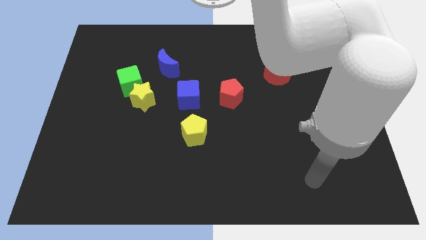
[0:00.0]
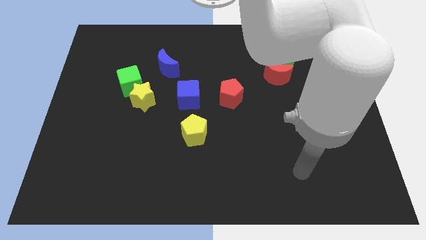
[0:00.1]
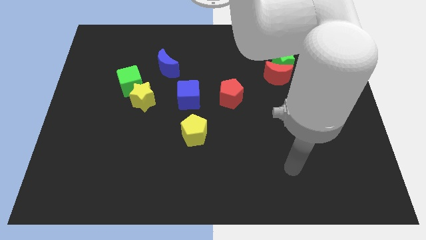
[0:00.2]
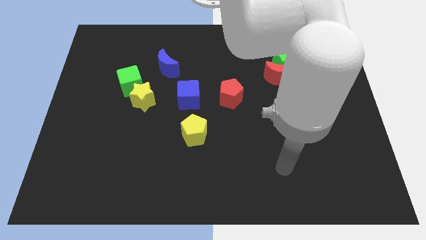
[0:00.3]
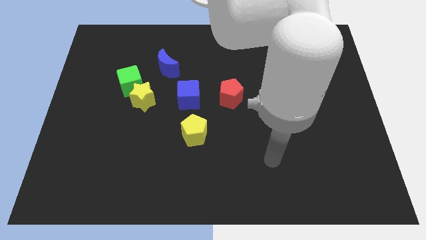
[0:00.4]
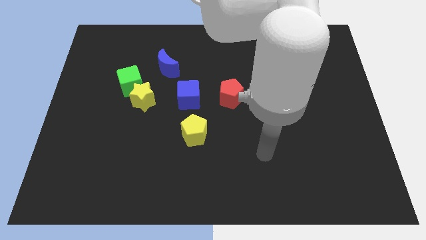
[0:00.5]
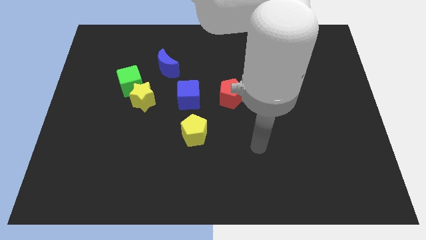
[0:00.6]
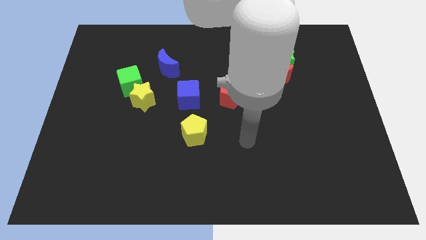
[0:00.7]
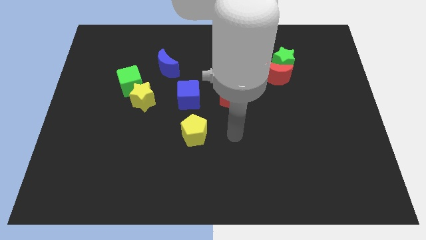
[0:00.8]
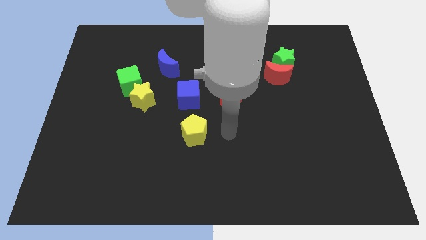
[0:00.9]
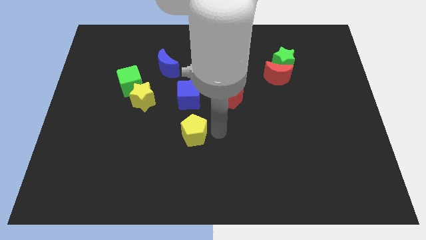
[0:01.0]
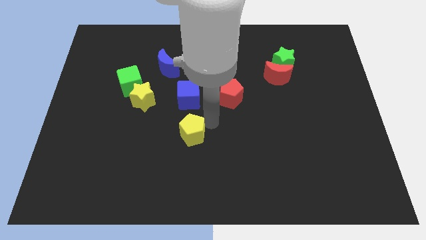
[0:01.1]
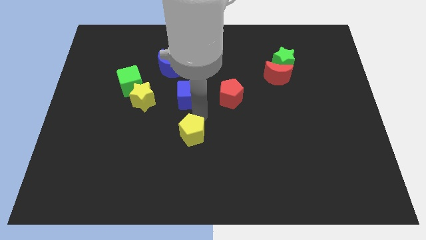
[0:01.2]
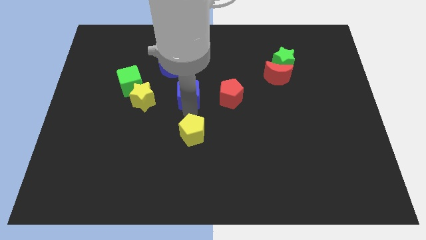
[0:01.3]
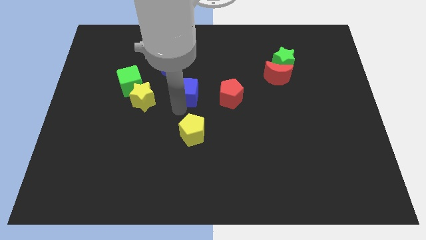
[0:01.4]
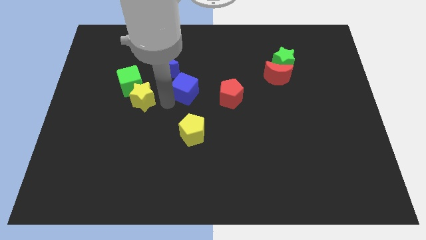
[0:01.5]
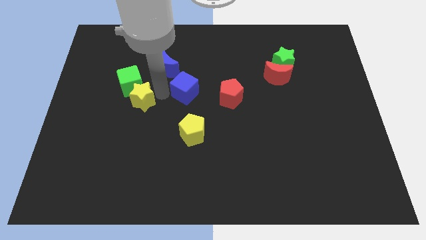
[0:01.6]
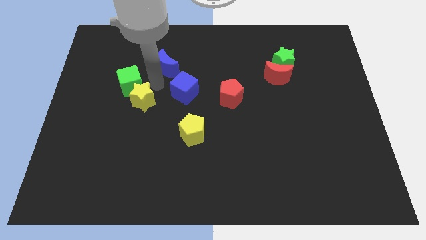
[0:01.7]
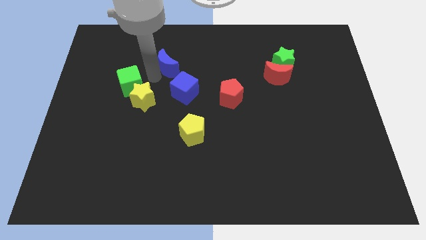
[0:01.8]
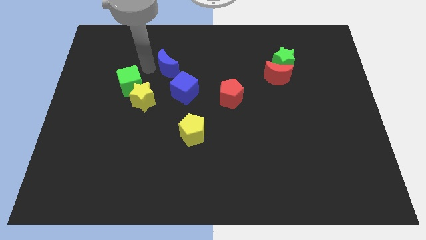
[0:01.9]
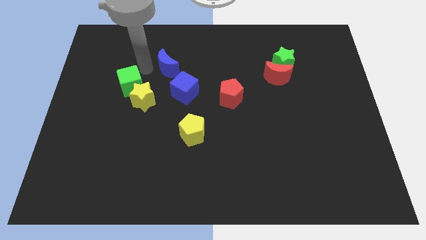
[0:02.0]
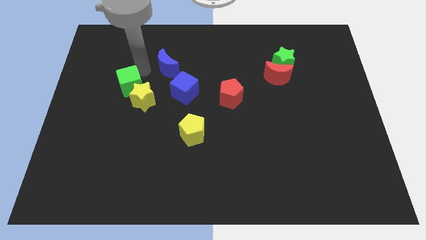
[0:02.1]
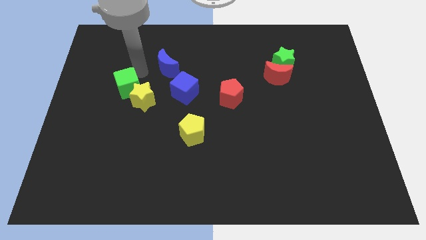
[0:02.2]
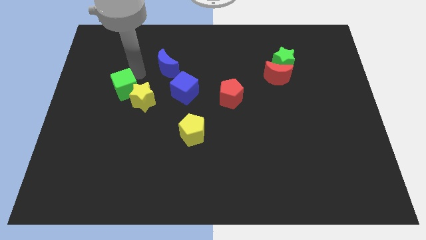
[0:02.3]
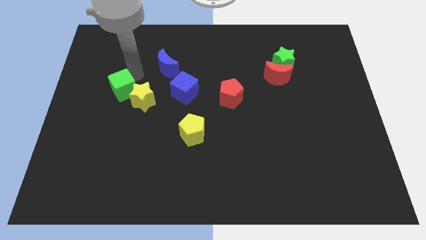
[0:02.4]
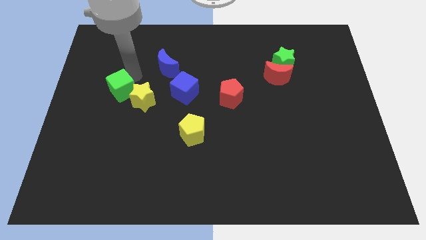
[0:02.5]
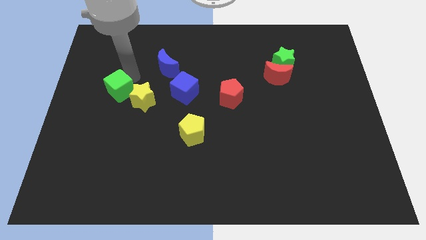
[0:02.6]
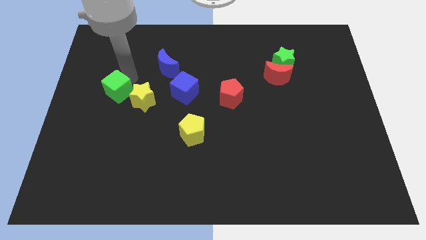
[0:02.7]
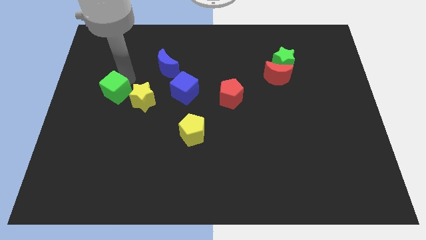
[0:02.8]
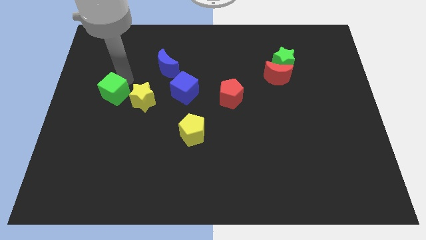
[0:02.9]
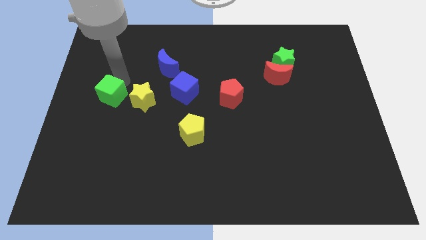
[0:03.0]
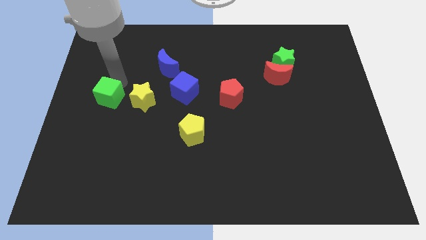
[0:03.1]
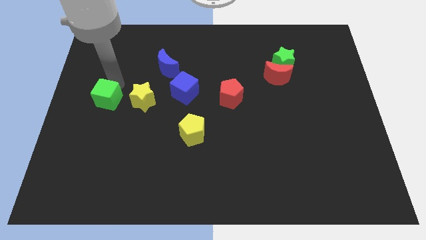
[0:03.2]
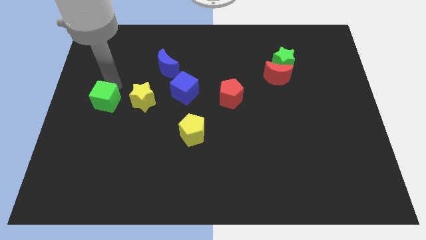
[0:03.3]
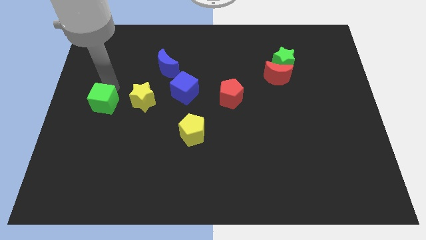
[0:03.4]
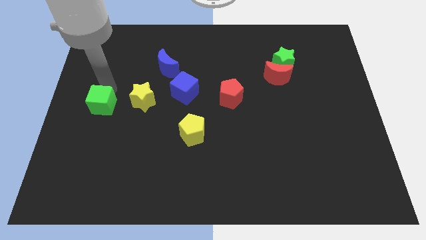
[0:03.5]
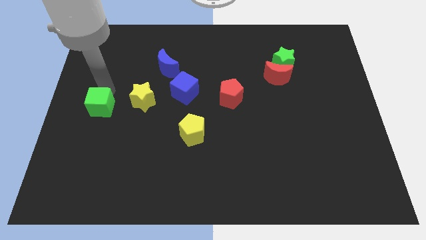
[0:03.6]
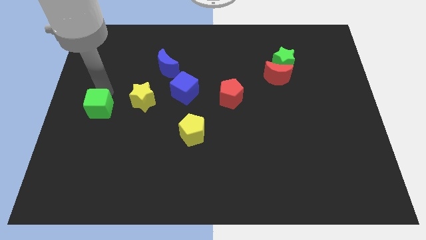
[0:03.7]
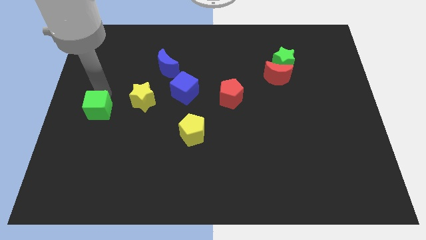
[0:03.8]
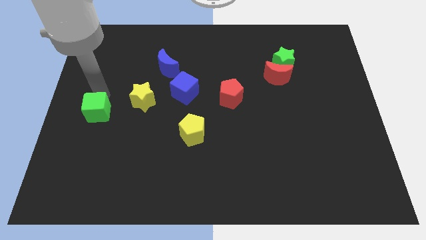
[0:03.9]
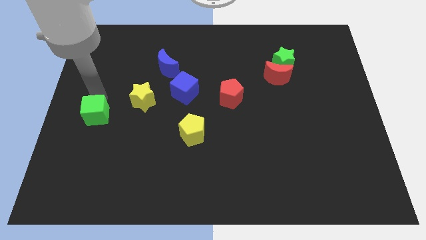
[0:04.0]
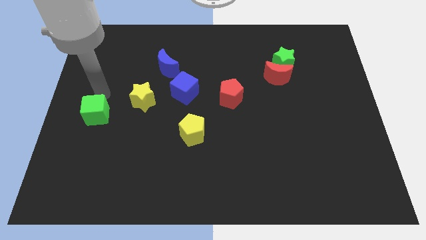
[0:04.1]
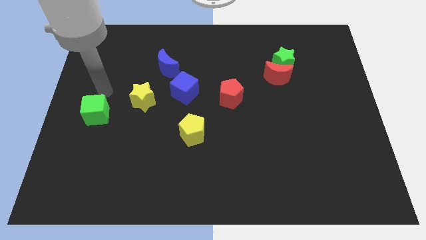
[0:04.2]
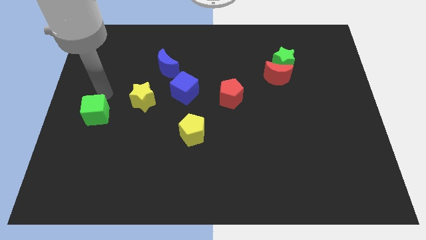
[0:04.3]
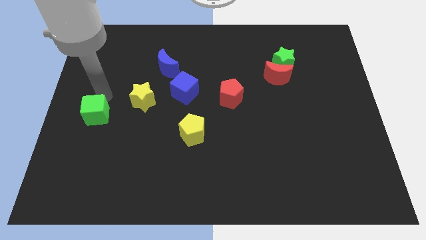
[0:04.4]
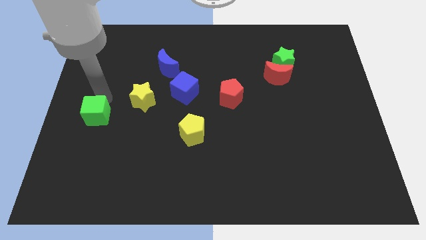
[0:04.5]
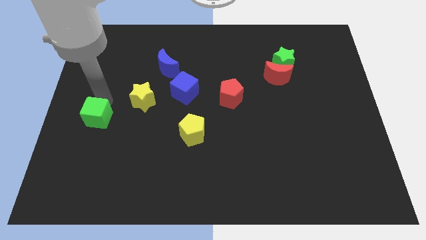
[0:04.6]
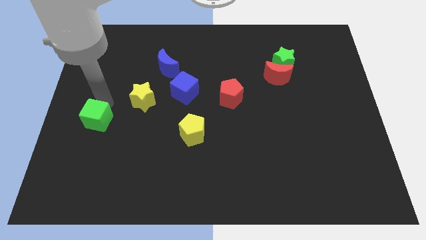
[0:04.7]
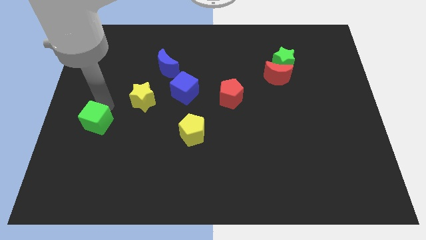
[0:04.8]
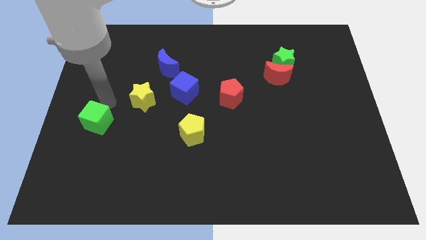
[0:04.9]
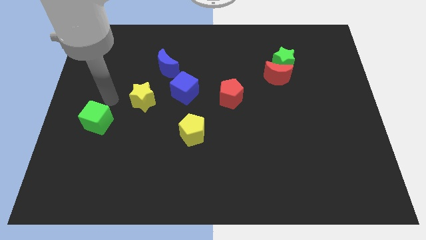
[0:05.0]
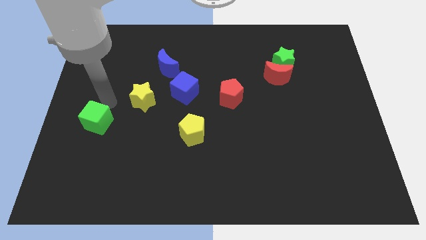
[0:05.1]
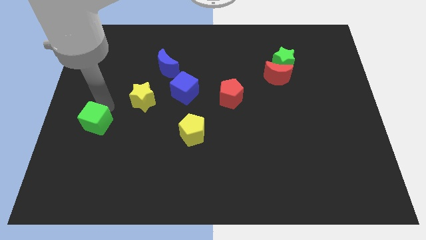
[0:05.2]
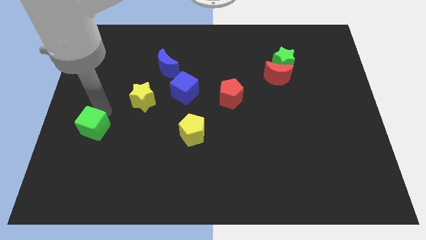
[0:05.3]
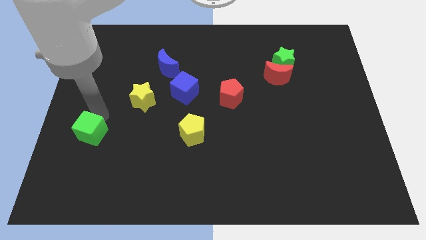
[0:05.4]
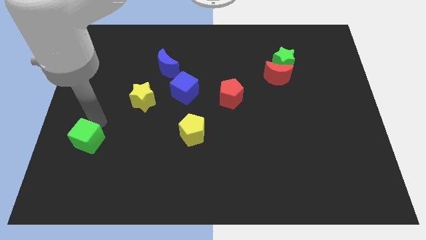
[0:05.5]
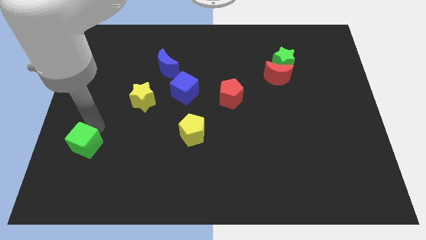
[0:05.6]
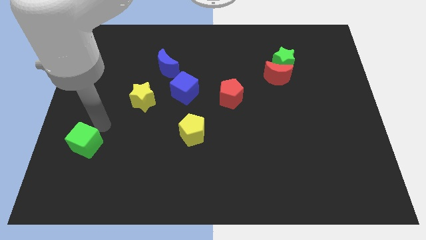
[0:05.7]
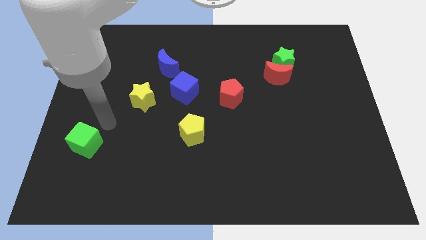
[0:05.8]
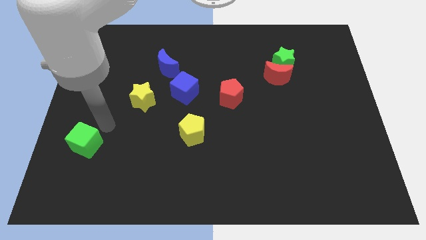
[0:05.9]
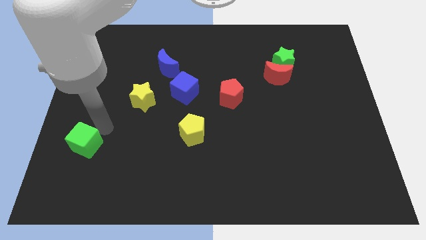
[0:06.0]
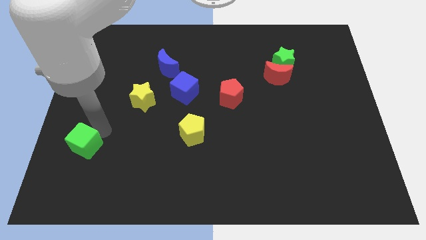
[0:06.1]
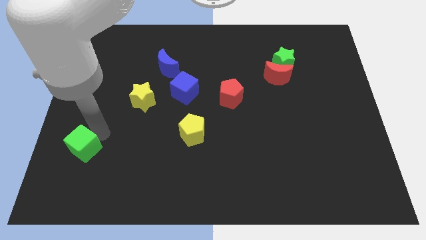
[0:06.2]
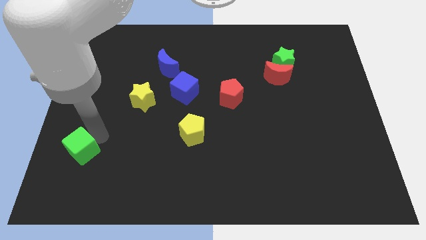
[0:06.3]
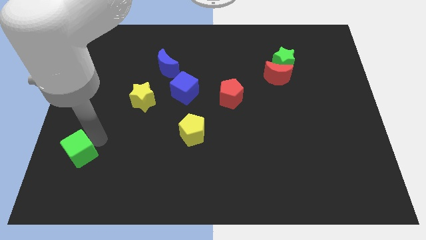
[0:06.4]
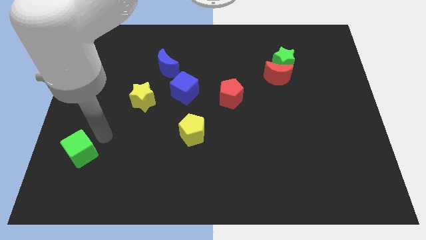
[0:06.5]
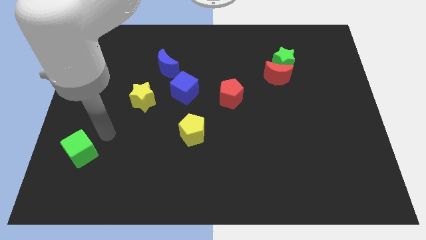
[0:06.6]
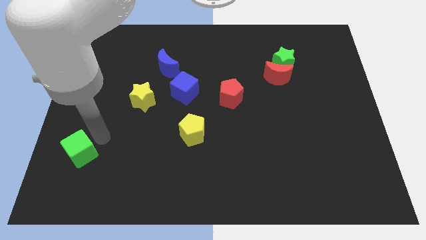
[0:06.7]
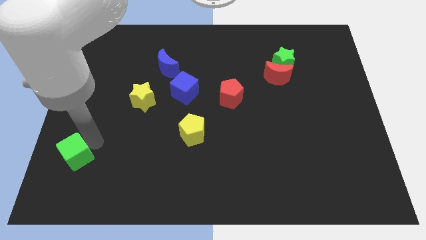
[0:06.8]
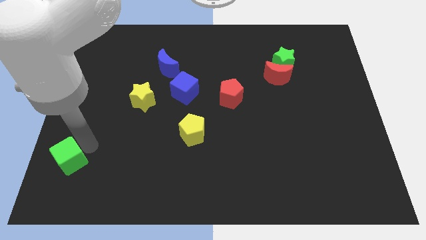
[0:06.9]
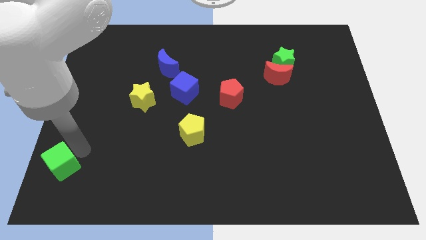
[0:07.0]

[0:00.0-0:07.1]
slide the green cube to the lower left corner
